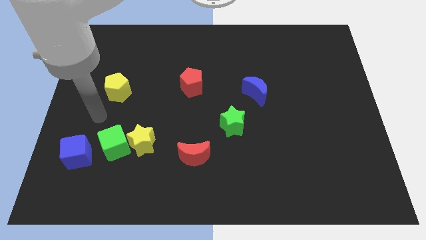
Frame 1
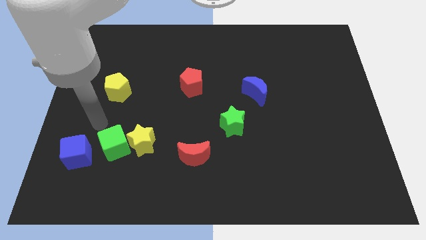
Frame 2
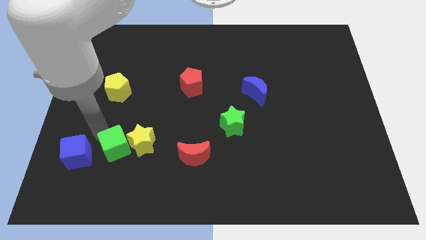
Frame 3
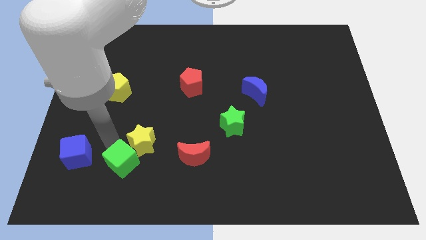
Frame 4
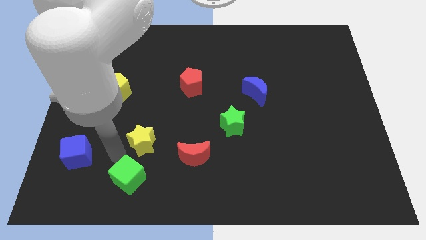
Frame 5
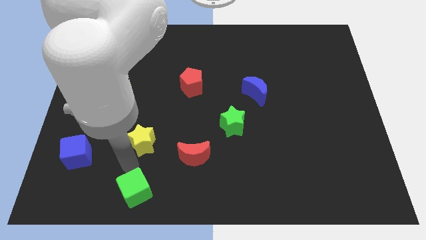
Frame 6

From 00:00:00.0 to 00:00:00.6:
move the yellow star away from the green cube

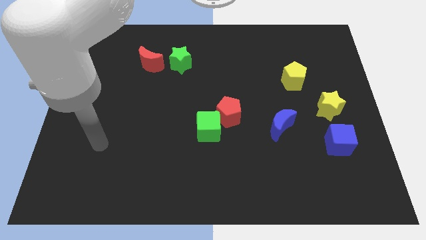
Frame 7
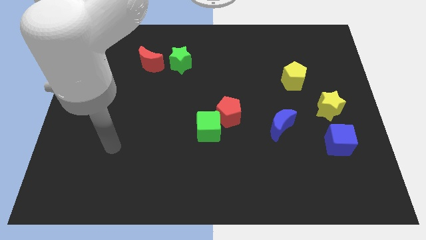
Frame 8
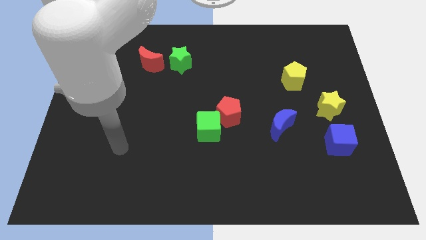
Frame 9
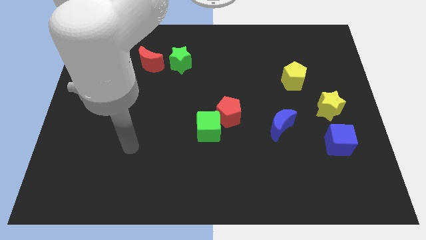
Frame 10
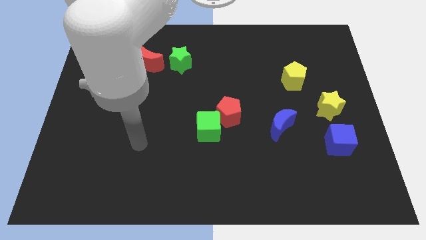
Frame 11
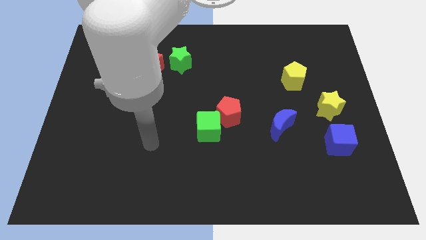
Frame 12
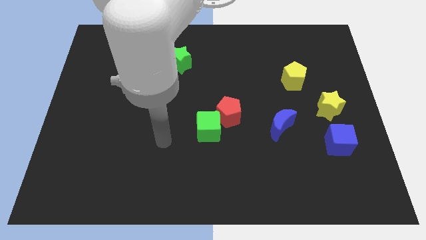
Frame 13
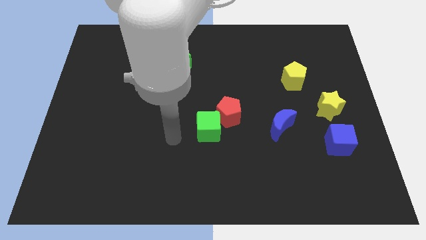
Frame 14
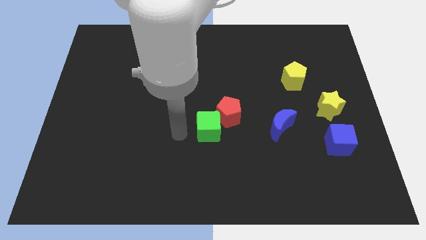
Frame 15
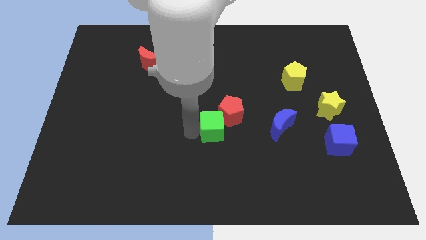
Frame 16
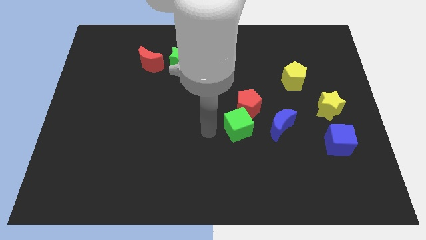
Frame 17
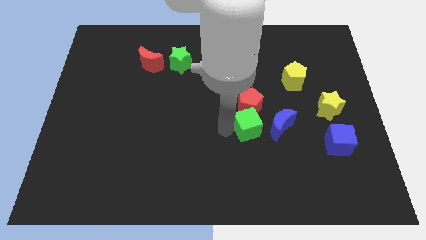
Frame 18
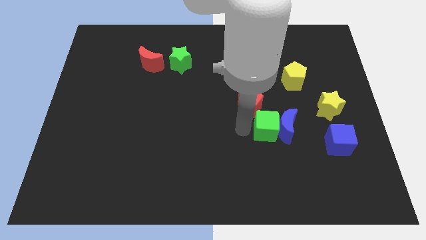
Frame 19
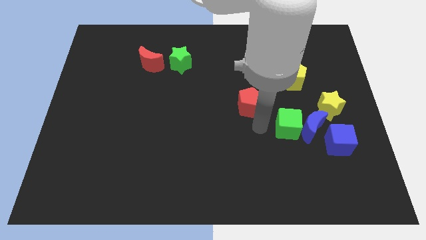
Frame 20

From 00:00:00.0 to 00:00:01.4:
pull the red pentagon apart from the green cube

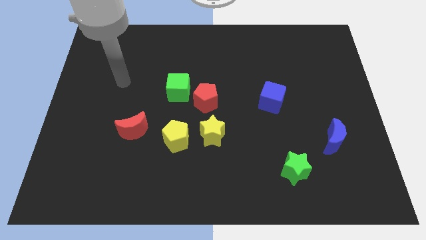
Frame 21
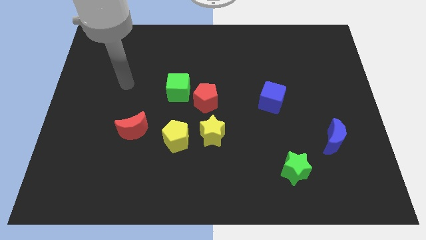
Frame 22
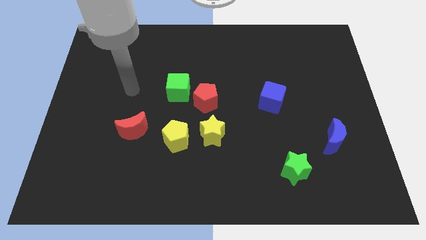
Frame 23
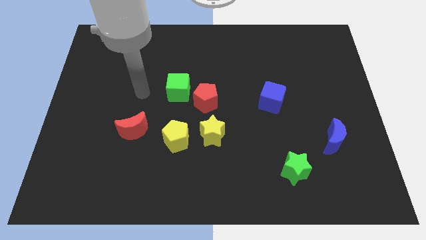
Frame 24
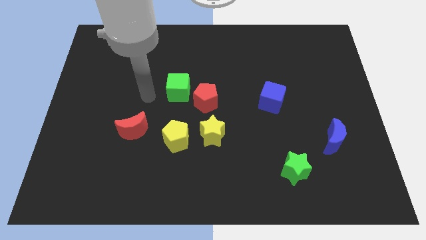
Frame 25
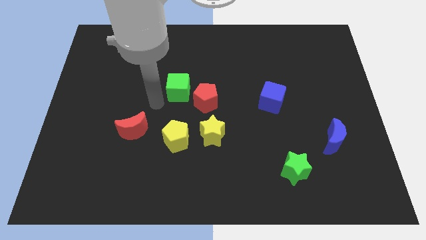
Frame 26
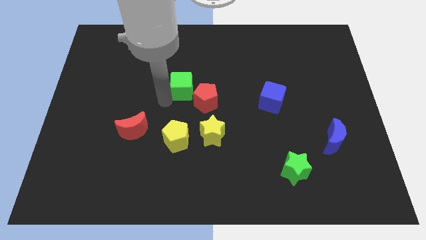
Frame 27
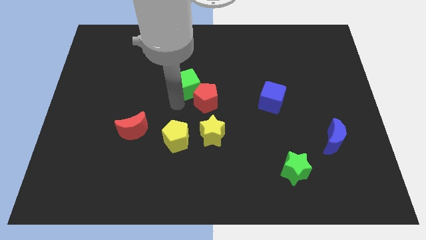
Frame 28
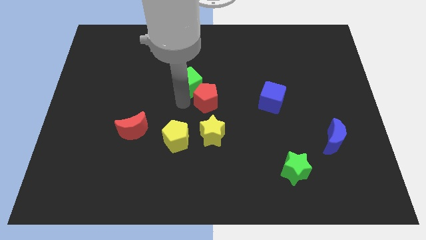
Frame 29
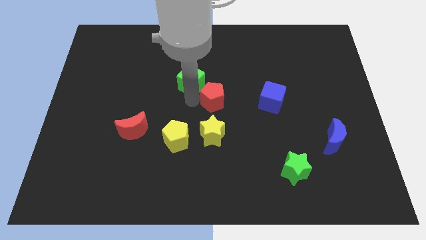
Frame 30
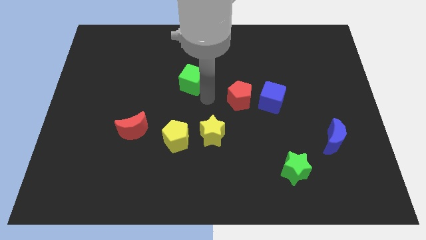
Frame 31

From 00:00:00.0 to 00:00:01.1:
pull the green cube apart from the red pentagon

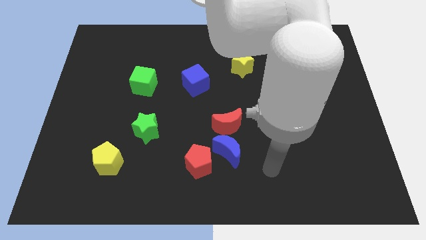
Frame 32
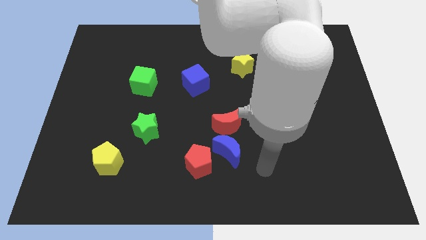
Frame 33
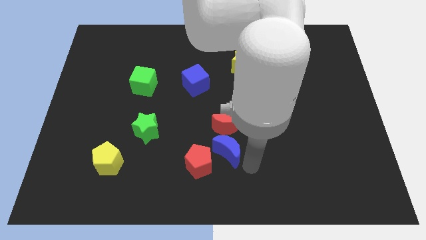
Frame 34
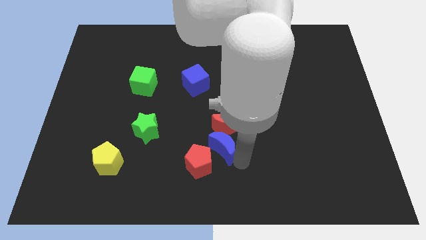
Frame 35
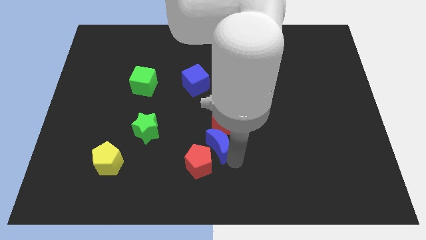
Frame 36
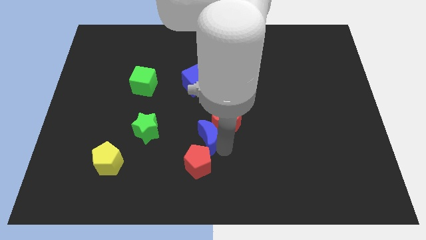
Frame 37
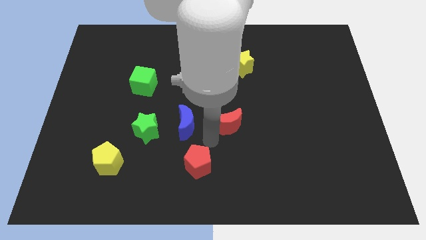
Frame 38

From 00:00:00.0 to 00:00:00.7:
move the red pentagon away from the blue moon

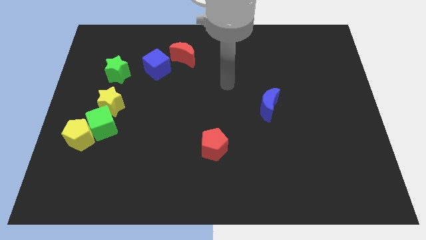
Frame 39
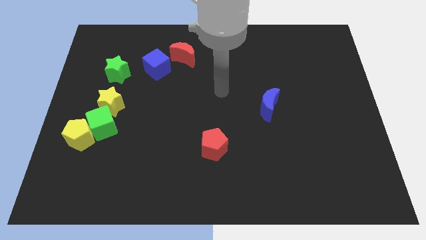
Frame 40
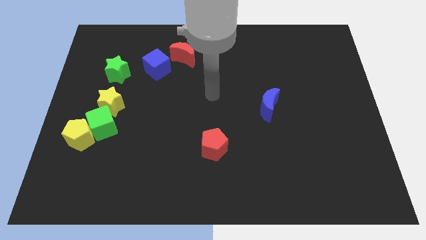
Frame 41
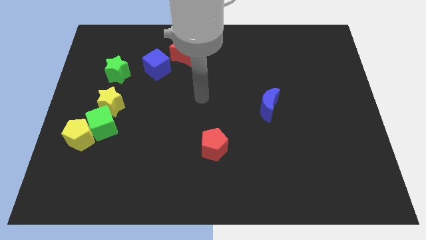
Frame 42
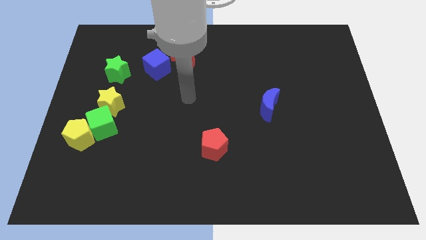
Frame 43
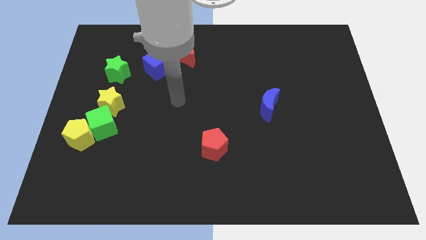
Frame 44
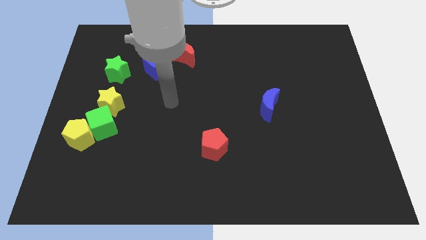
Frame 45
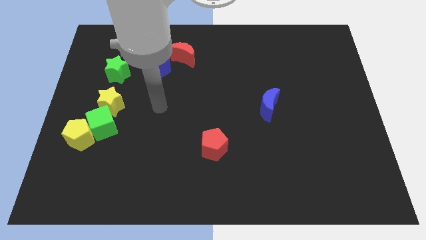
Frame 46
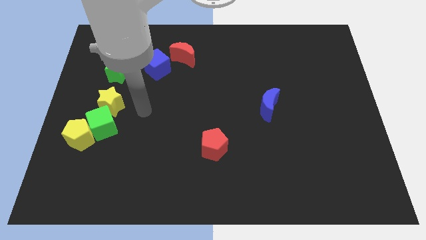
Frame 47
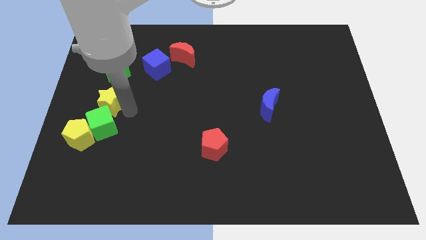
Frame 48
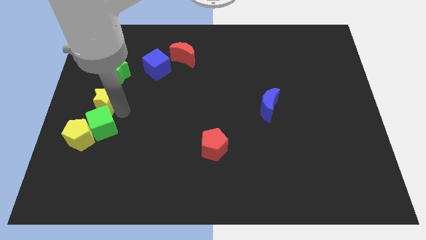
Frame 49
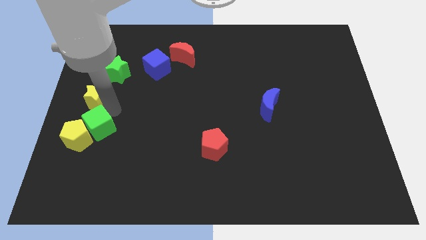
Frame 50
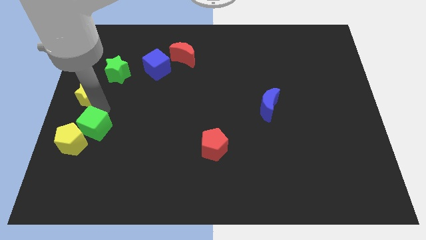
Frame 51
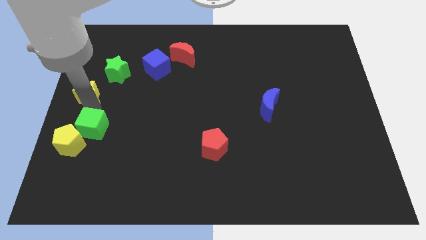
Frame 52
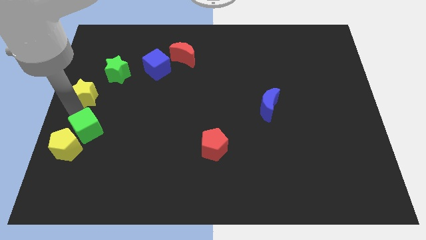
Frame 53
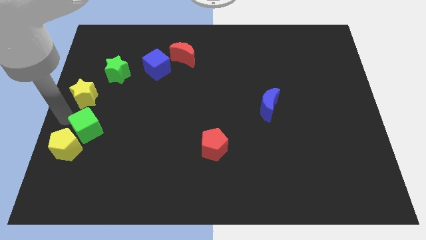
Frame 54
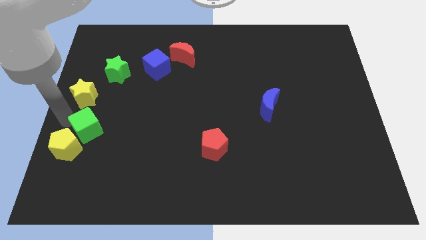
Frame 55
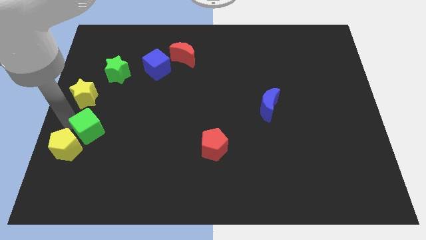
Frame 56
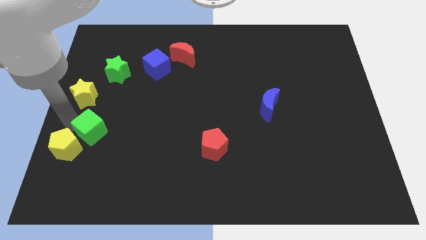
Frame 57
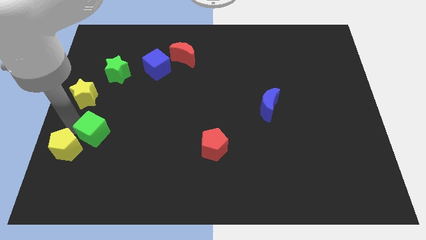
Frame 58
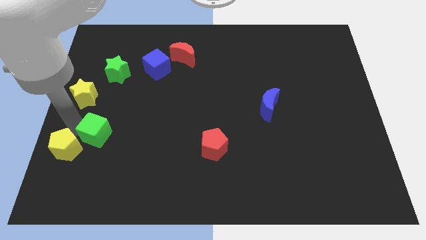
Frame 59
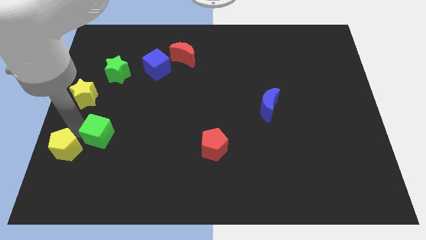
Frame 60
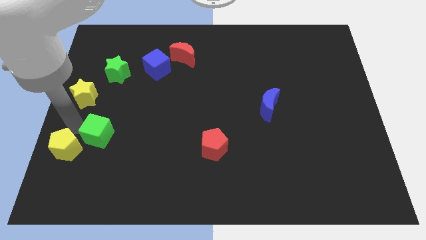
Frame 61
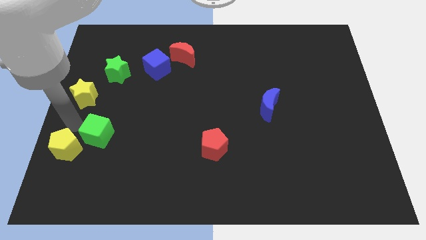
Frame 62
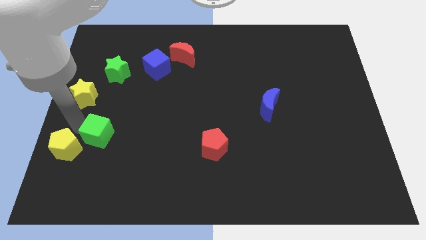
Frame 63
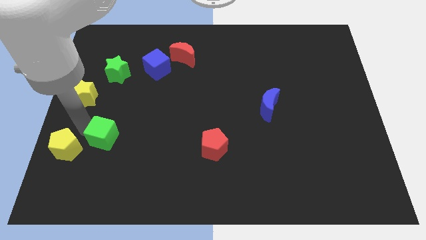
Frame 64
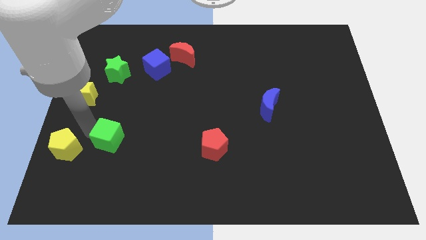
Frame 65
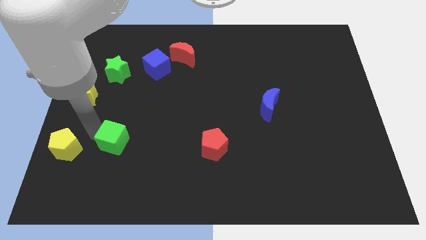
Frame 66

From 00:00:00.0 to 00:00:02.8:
pull the green cube apart from the yellow pentagon and yellow star

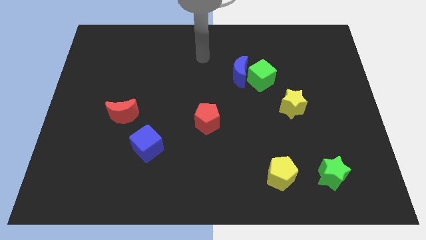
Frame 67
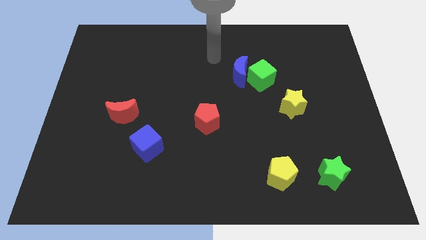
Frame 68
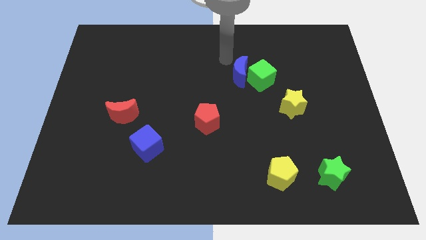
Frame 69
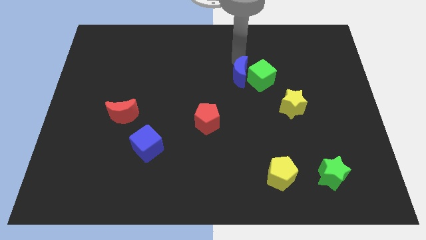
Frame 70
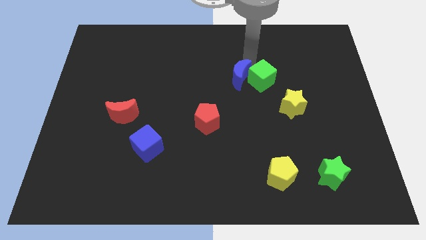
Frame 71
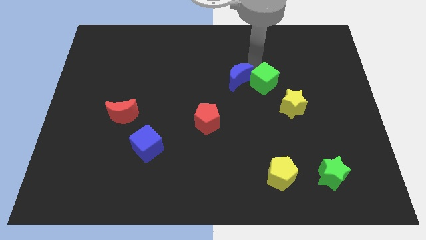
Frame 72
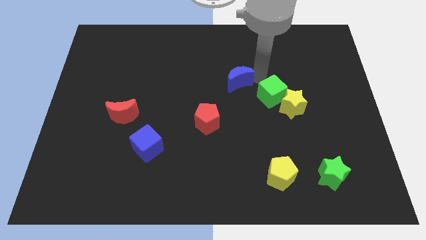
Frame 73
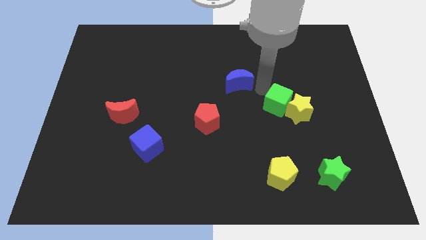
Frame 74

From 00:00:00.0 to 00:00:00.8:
pull the blue moon apart from the green cube

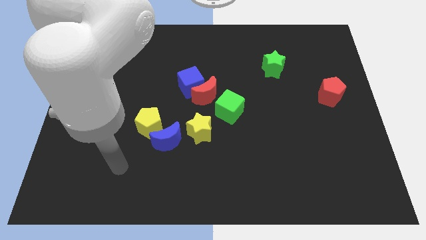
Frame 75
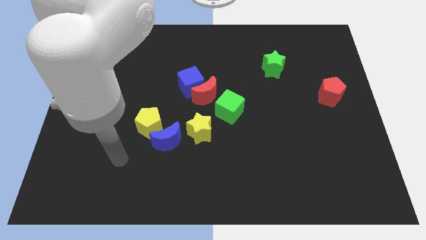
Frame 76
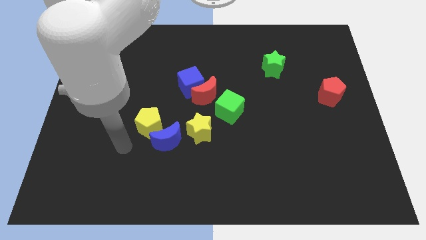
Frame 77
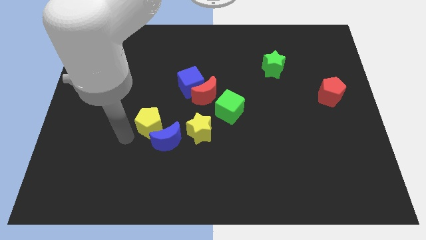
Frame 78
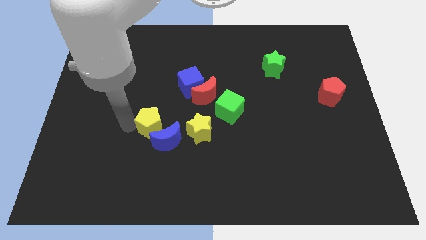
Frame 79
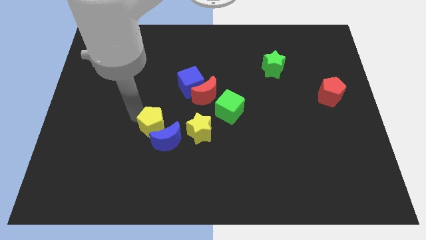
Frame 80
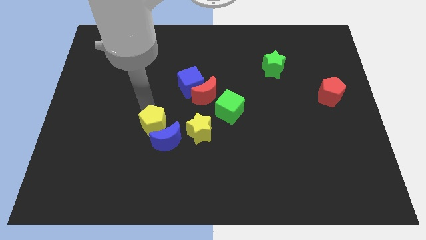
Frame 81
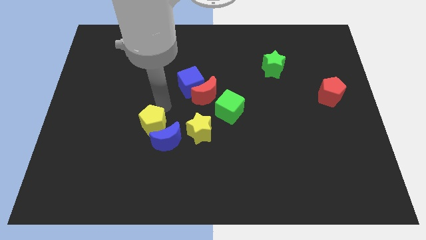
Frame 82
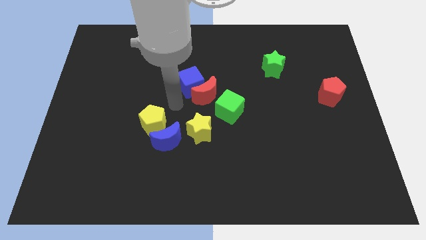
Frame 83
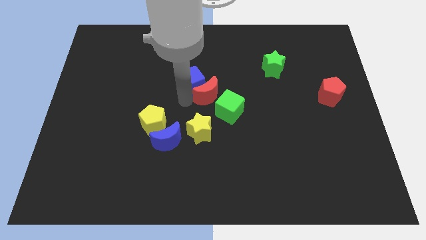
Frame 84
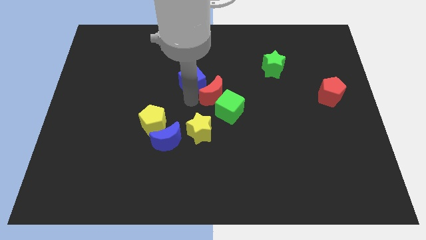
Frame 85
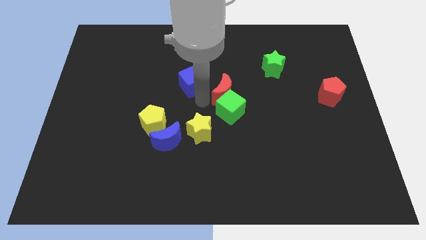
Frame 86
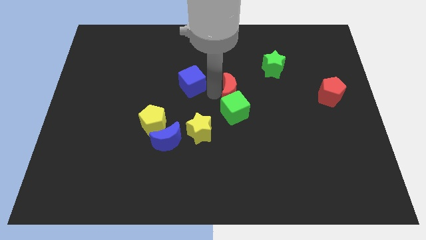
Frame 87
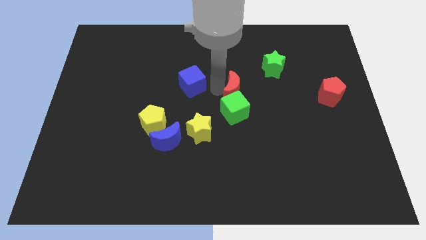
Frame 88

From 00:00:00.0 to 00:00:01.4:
move the blue cube away from the red moon

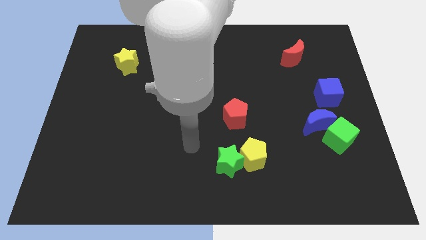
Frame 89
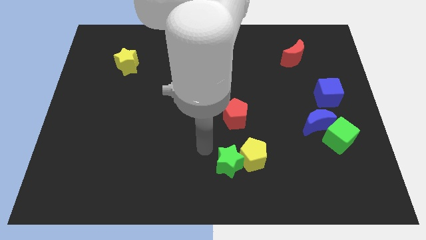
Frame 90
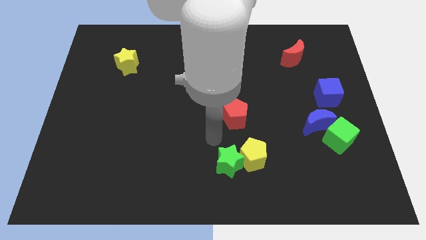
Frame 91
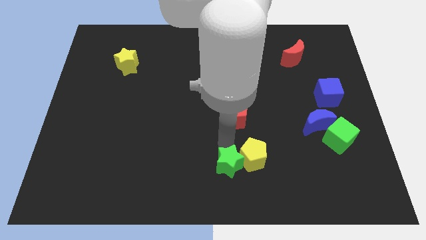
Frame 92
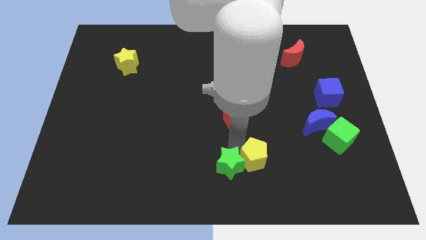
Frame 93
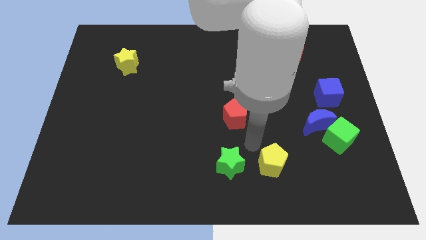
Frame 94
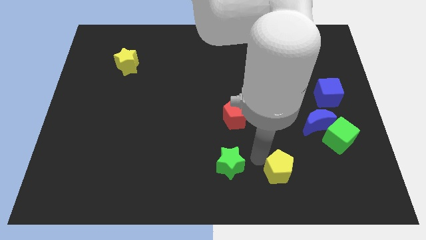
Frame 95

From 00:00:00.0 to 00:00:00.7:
separate the green star from the yellow pentagon
